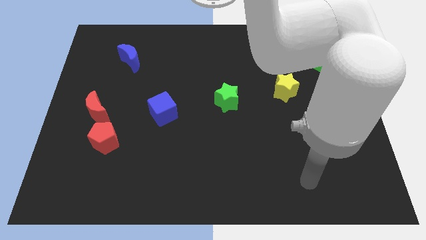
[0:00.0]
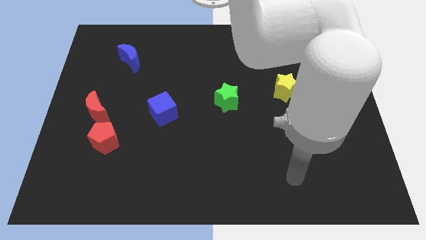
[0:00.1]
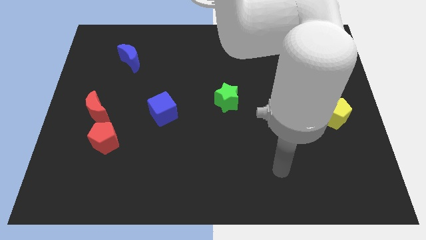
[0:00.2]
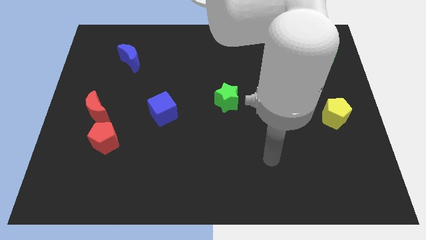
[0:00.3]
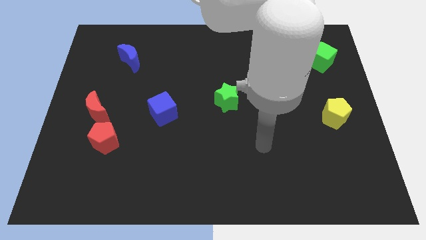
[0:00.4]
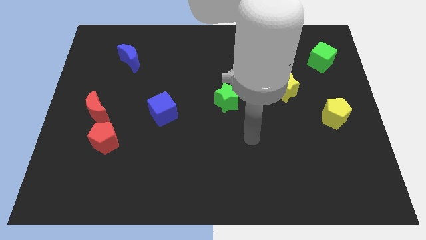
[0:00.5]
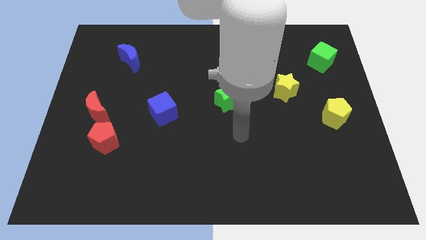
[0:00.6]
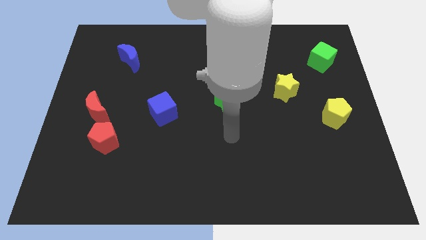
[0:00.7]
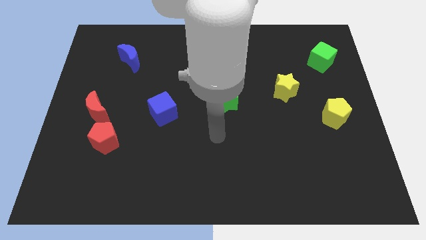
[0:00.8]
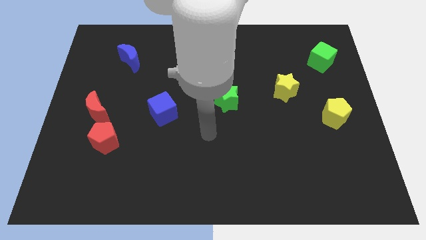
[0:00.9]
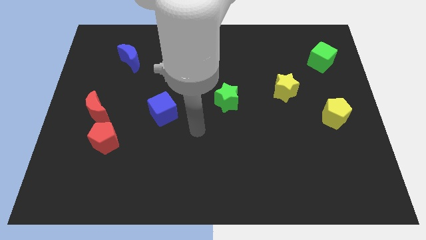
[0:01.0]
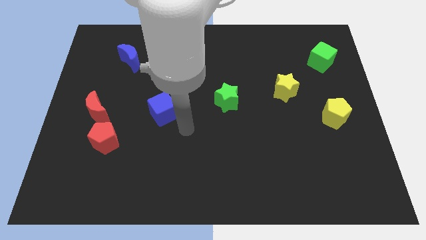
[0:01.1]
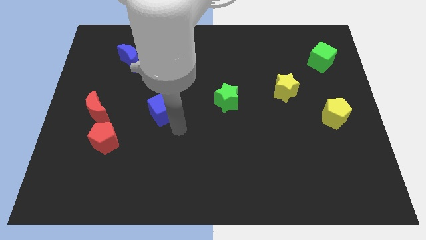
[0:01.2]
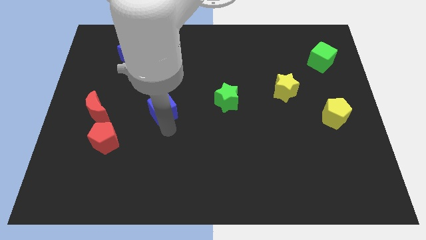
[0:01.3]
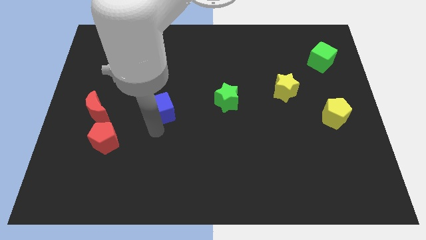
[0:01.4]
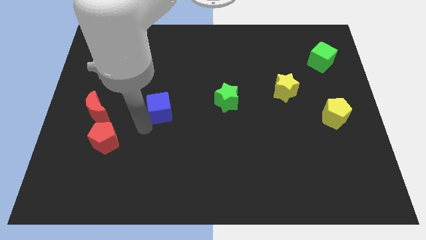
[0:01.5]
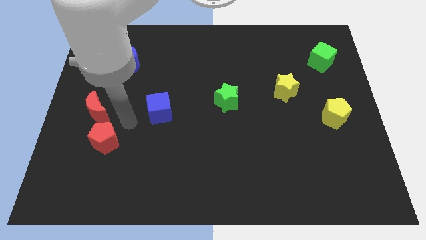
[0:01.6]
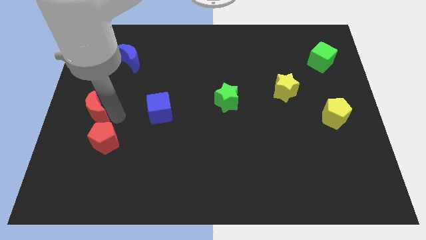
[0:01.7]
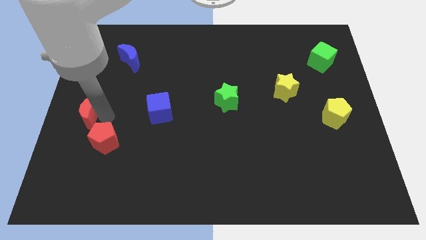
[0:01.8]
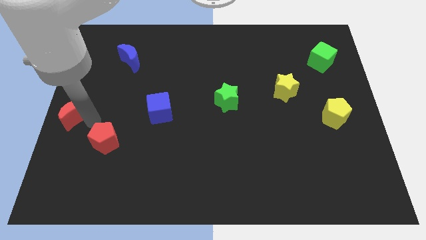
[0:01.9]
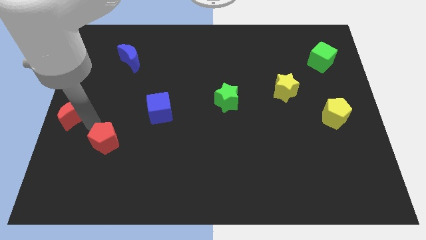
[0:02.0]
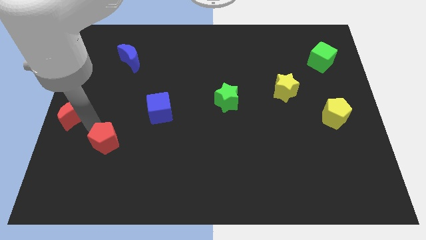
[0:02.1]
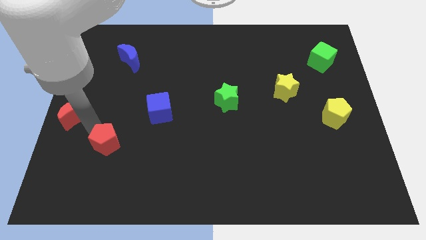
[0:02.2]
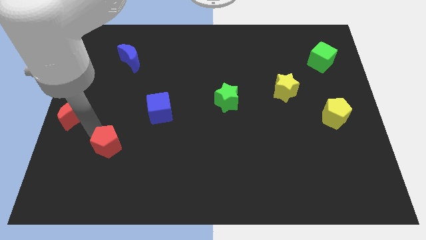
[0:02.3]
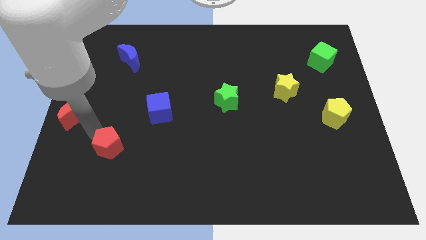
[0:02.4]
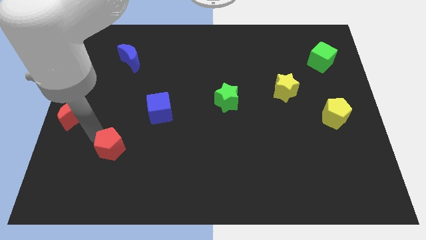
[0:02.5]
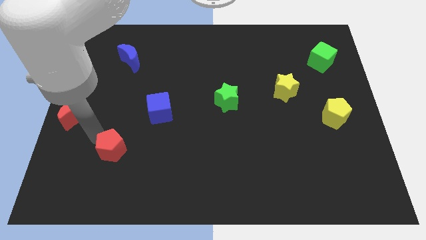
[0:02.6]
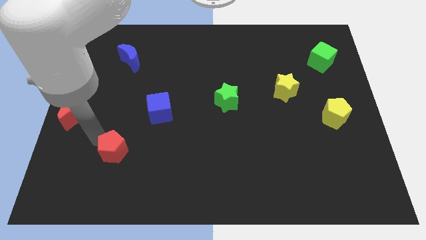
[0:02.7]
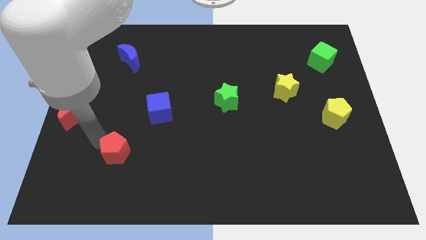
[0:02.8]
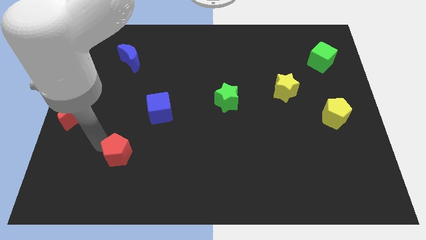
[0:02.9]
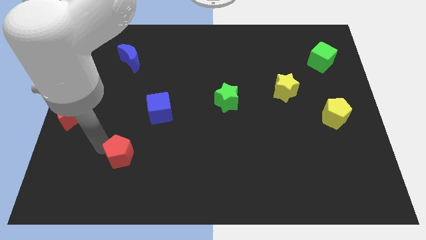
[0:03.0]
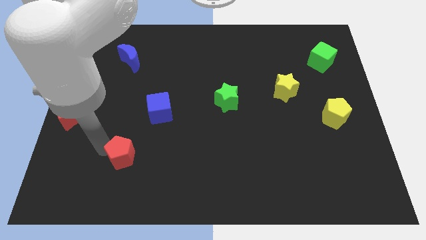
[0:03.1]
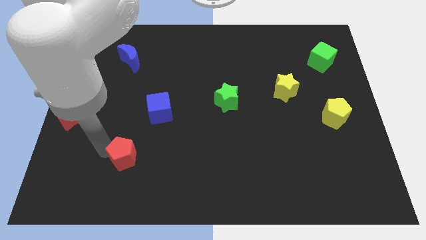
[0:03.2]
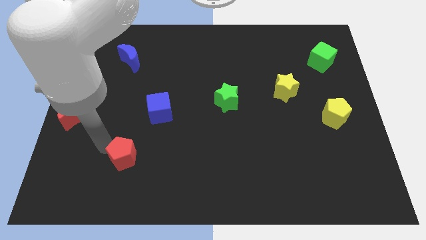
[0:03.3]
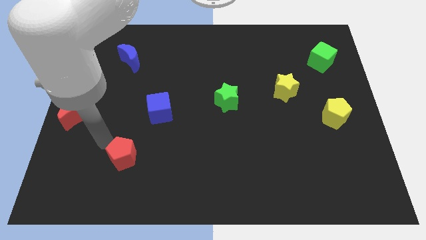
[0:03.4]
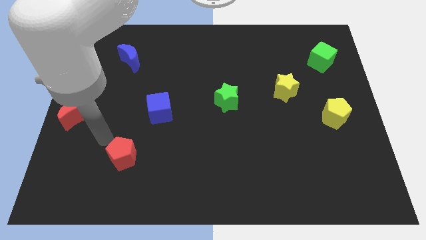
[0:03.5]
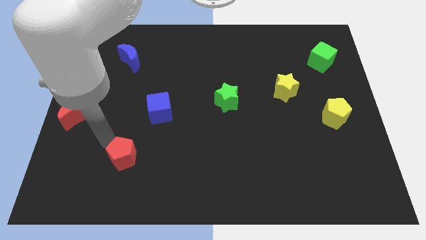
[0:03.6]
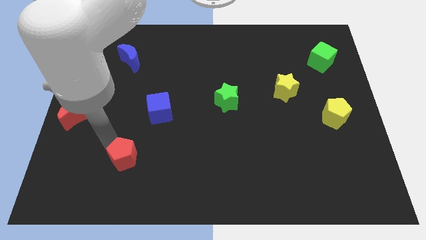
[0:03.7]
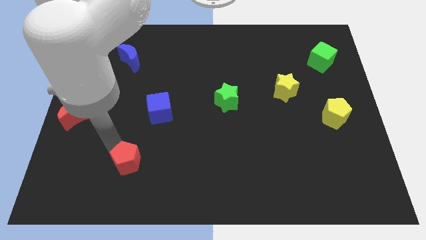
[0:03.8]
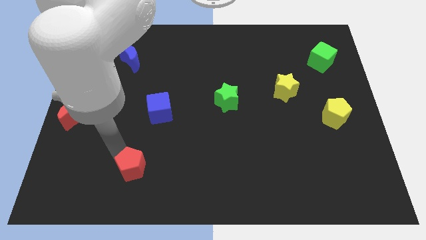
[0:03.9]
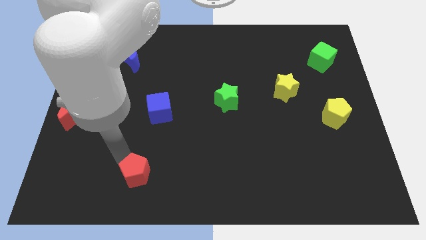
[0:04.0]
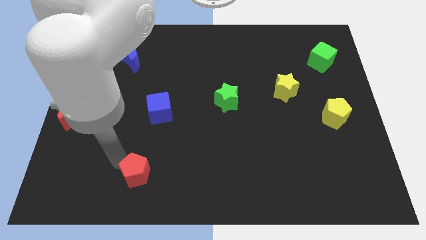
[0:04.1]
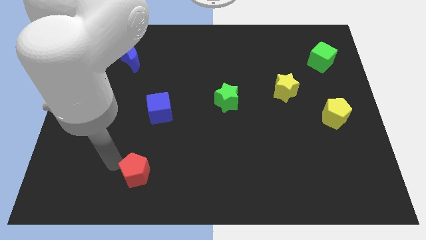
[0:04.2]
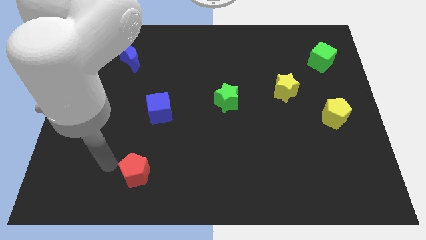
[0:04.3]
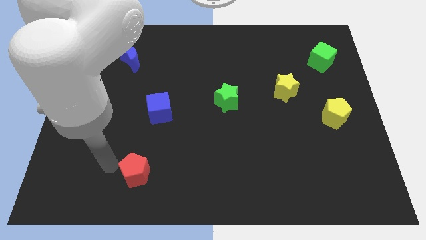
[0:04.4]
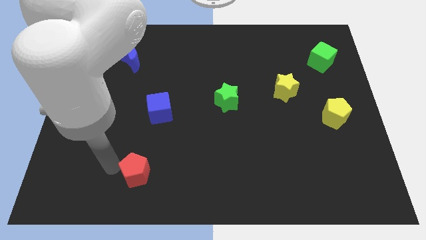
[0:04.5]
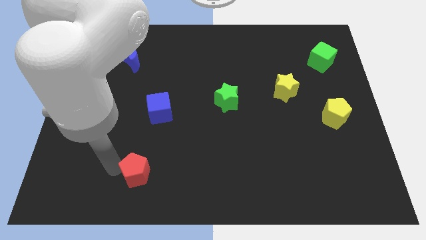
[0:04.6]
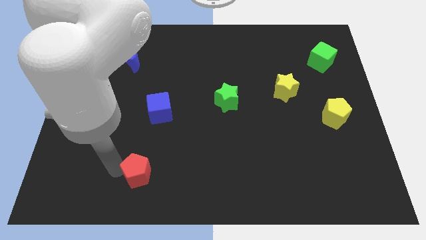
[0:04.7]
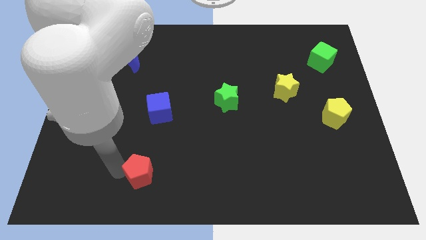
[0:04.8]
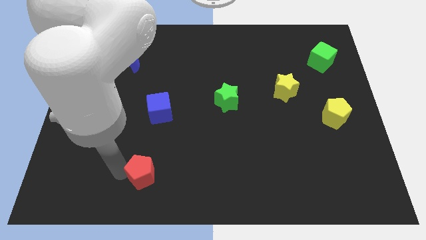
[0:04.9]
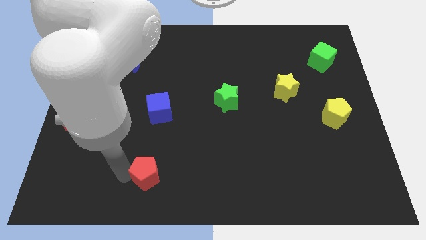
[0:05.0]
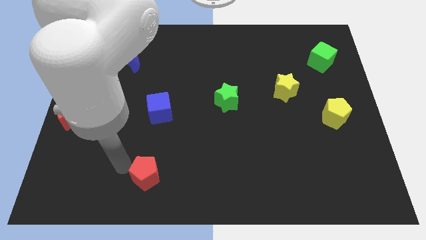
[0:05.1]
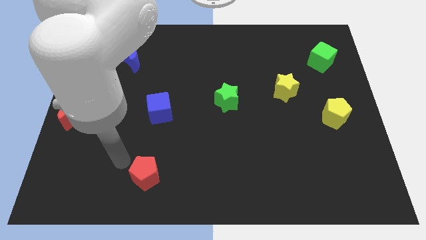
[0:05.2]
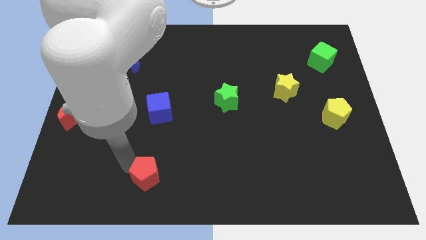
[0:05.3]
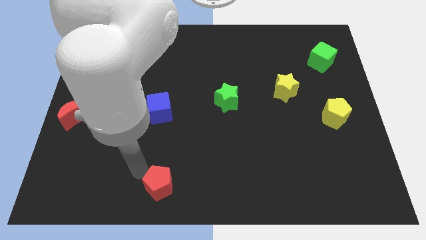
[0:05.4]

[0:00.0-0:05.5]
put the red pentagon to the bottom side

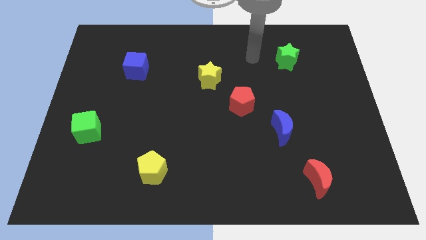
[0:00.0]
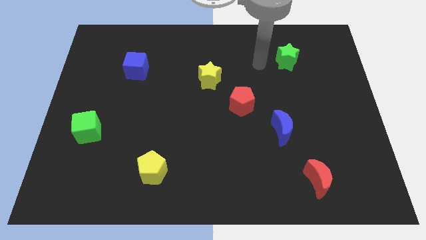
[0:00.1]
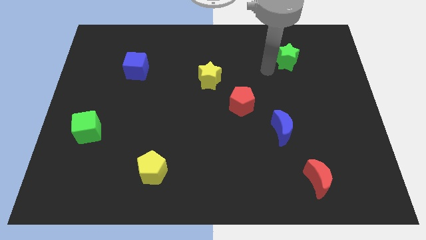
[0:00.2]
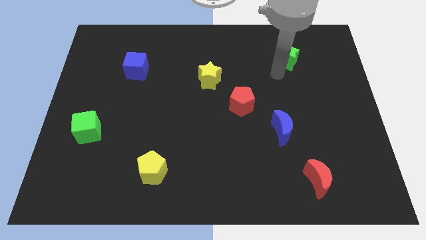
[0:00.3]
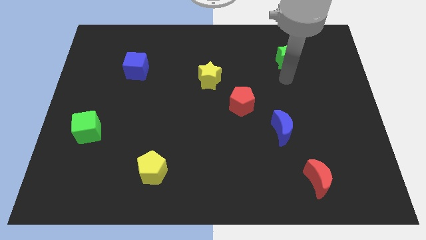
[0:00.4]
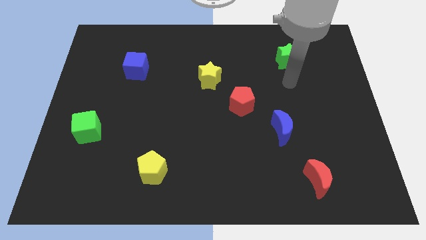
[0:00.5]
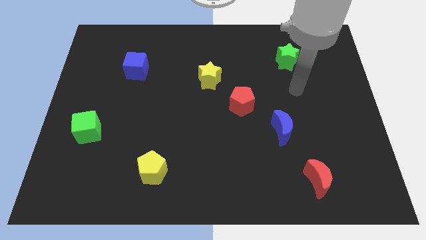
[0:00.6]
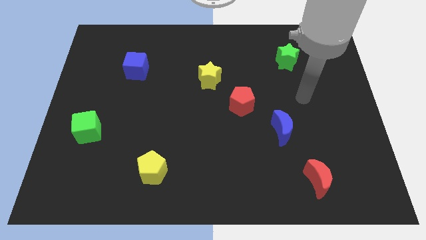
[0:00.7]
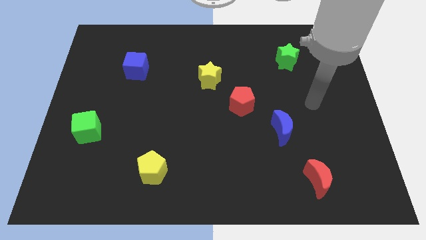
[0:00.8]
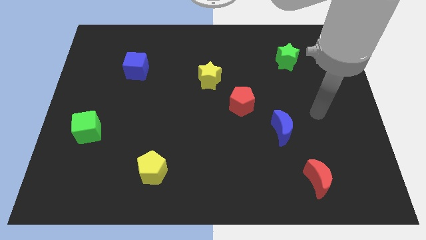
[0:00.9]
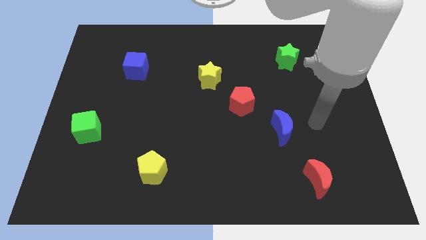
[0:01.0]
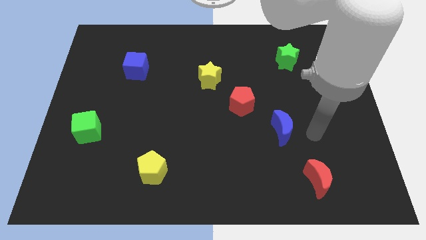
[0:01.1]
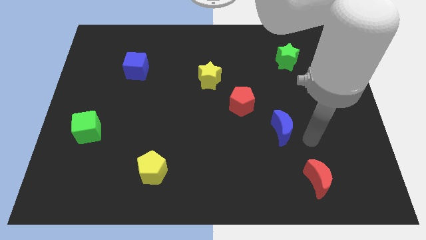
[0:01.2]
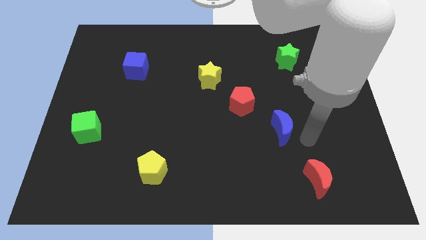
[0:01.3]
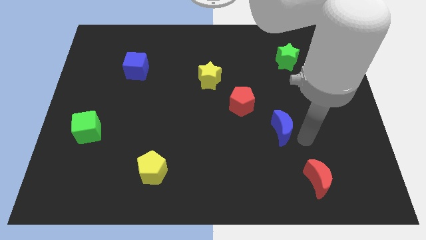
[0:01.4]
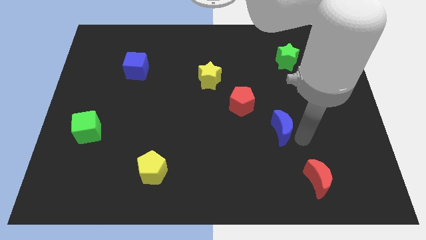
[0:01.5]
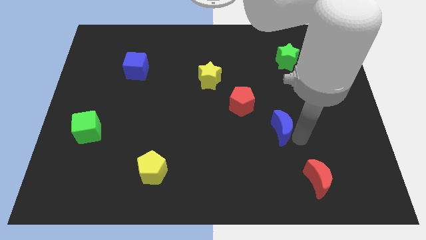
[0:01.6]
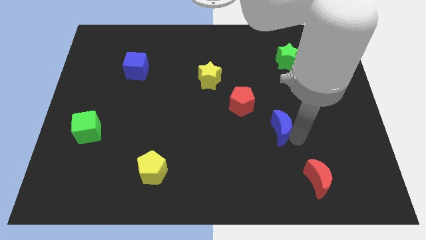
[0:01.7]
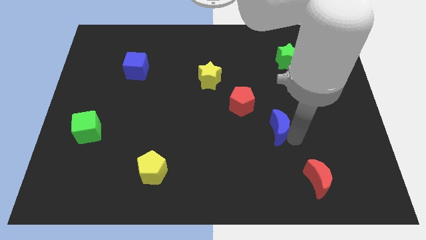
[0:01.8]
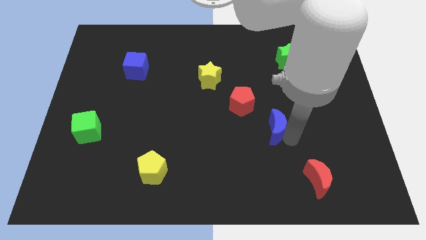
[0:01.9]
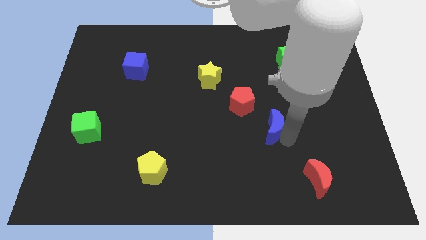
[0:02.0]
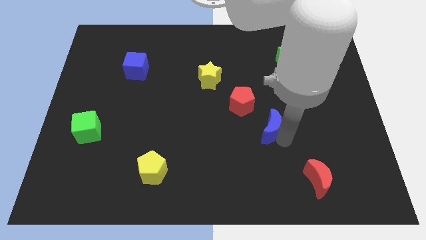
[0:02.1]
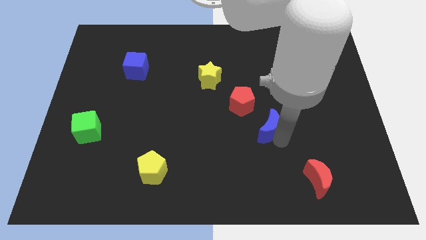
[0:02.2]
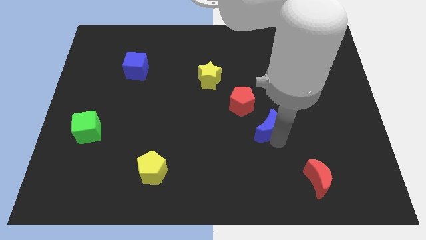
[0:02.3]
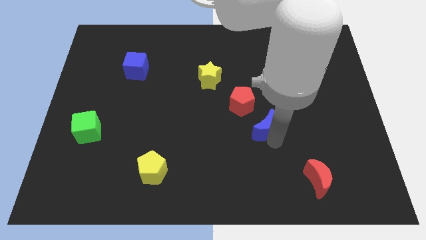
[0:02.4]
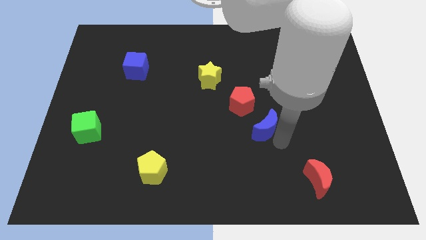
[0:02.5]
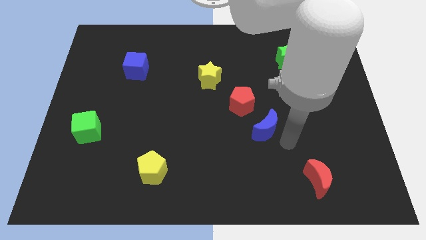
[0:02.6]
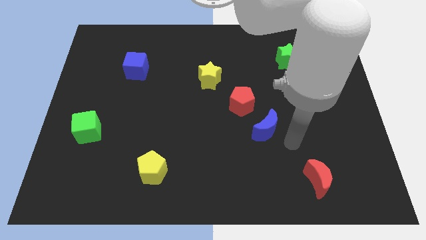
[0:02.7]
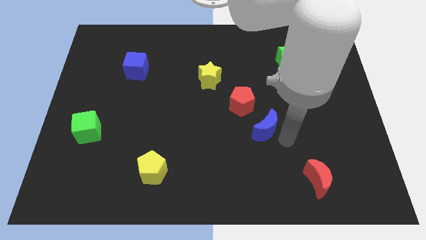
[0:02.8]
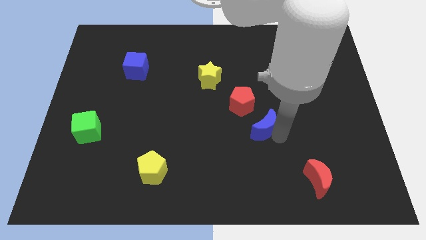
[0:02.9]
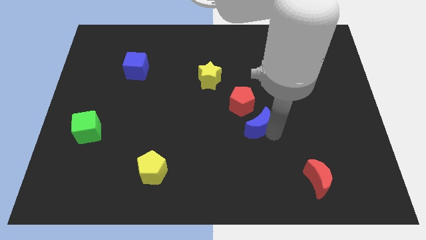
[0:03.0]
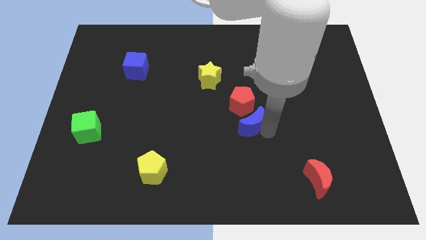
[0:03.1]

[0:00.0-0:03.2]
slide the blue moon to the center of the board
